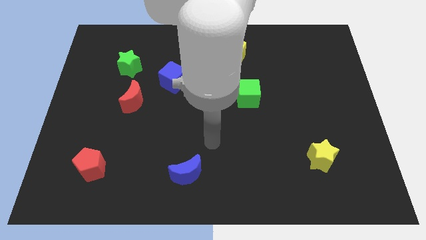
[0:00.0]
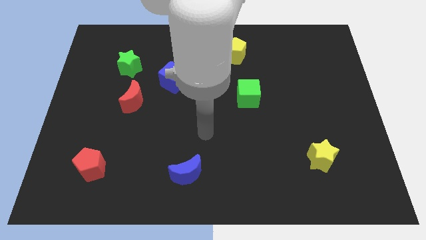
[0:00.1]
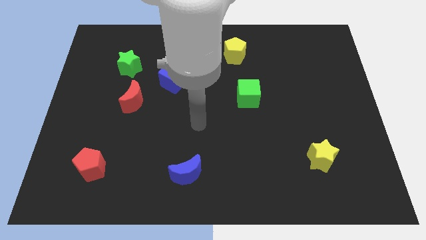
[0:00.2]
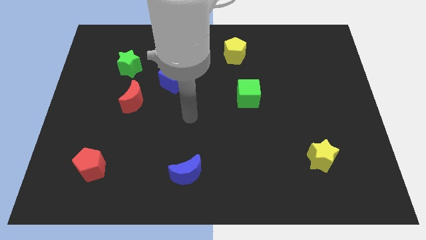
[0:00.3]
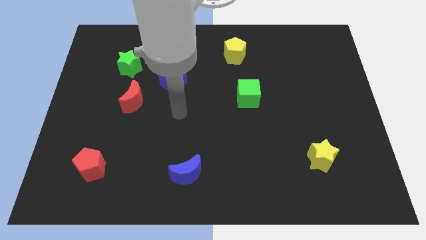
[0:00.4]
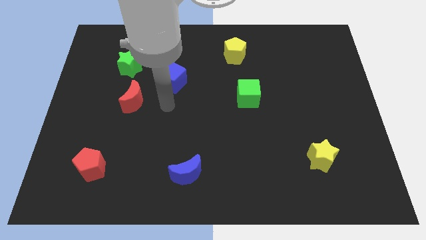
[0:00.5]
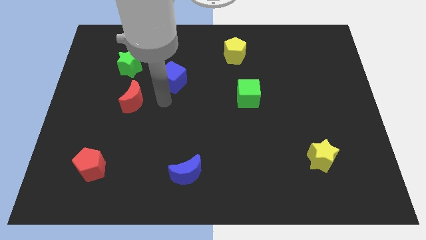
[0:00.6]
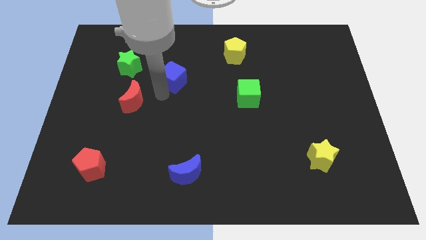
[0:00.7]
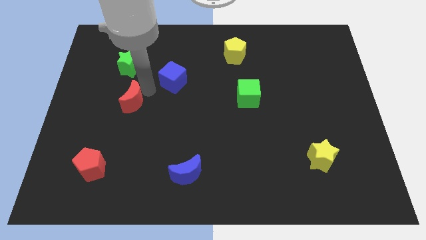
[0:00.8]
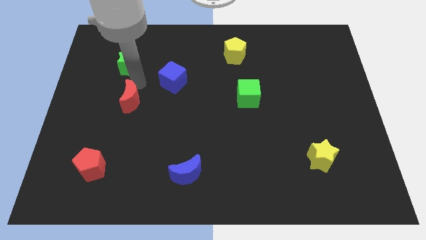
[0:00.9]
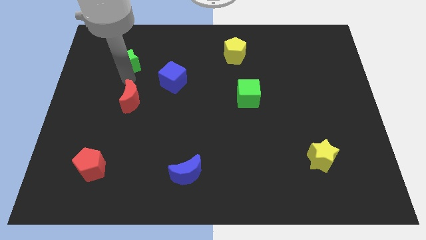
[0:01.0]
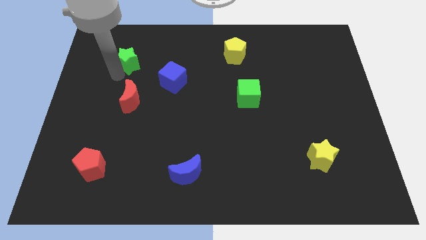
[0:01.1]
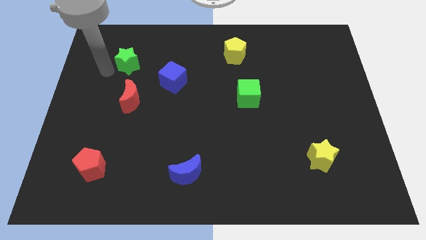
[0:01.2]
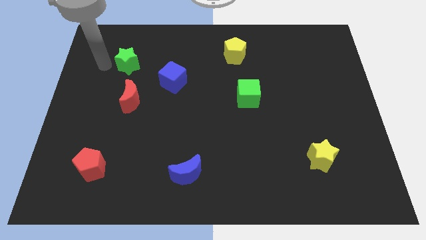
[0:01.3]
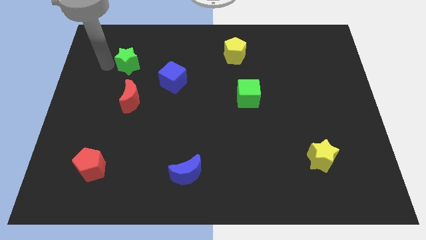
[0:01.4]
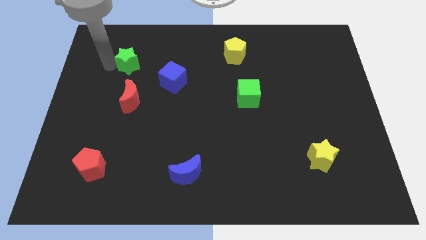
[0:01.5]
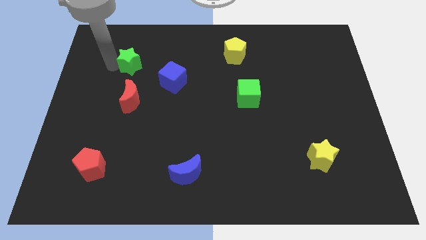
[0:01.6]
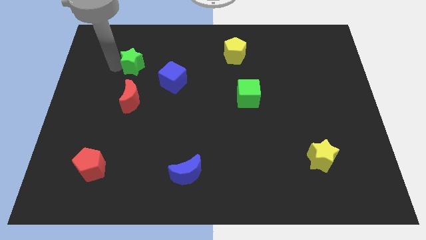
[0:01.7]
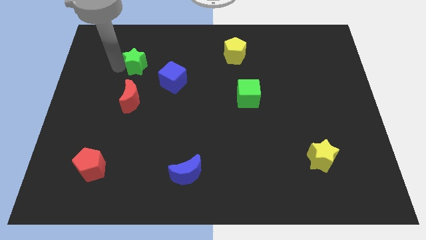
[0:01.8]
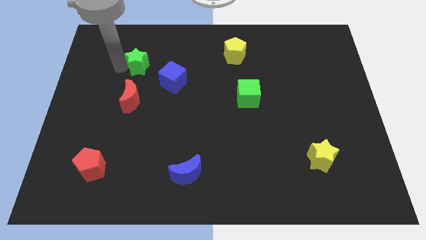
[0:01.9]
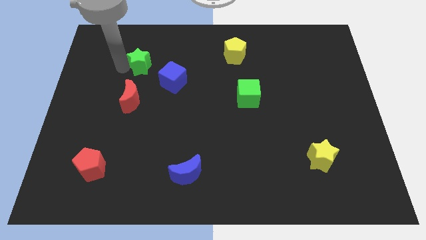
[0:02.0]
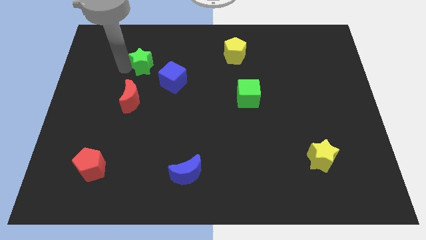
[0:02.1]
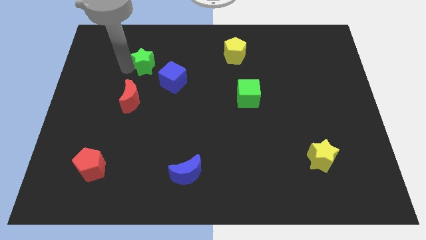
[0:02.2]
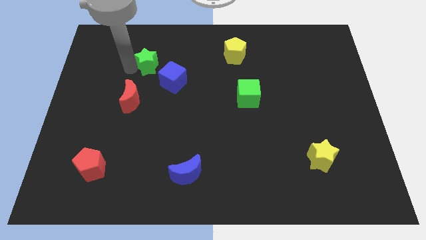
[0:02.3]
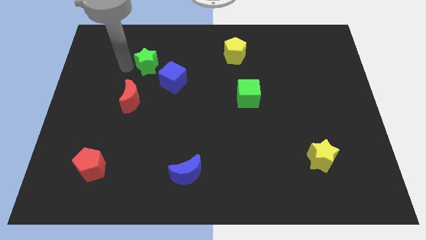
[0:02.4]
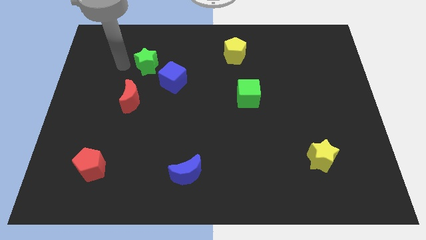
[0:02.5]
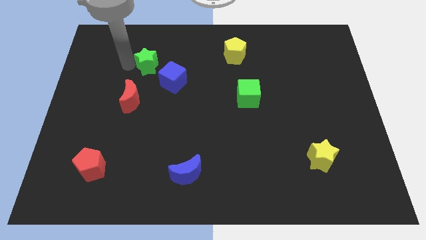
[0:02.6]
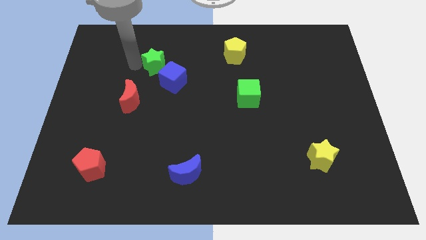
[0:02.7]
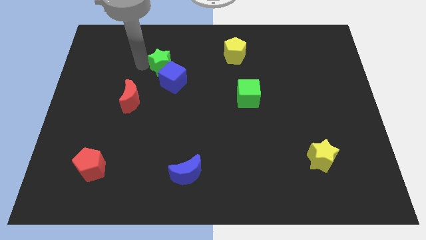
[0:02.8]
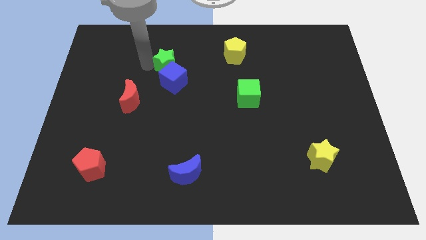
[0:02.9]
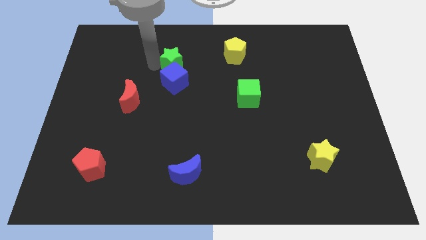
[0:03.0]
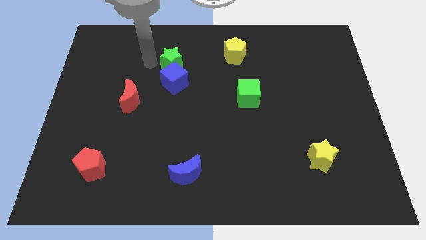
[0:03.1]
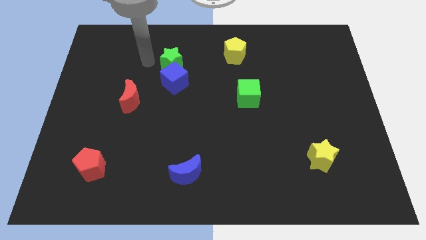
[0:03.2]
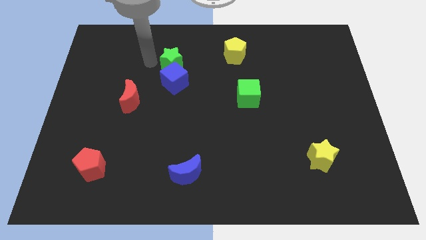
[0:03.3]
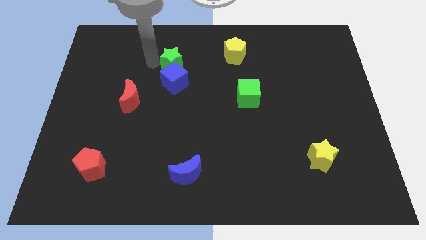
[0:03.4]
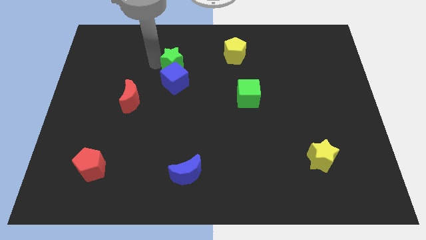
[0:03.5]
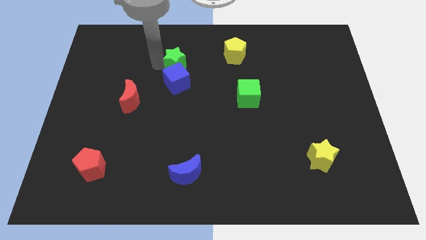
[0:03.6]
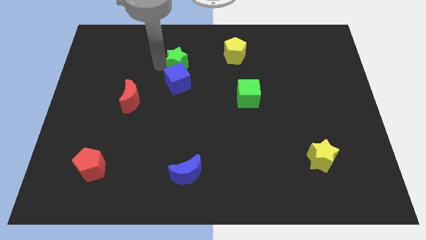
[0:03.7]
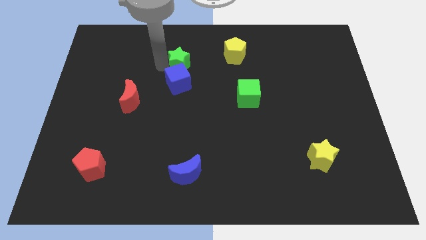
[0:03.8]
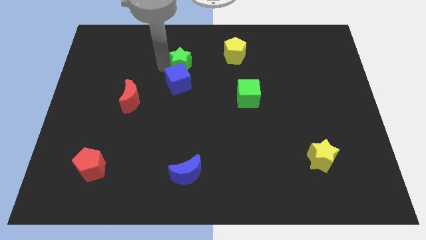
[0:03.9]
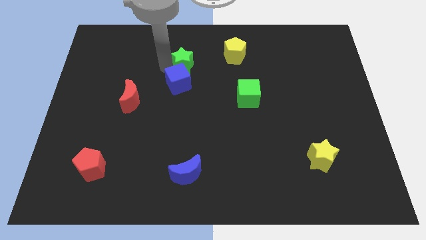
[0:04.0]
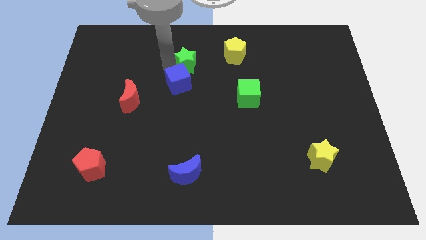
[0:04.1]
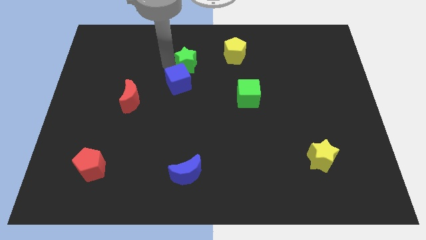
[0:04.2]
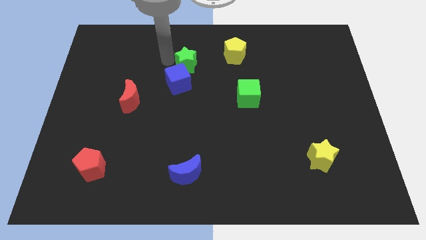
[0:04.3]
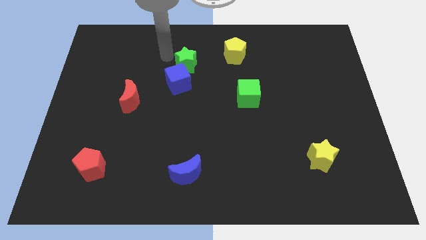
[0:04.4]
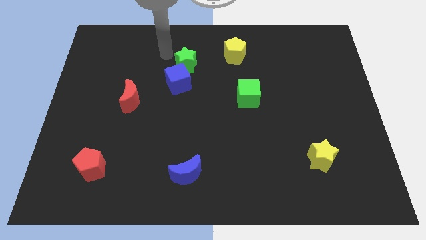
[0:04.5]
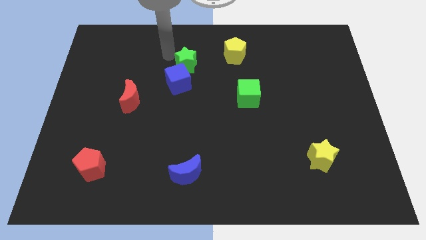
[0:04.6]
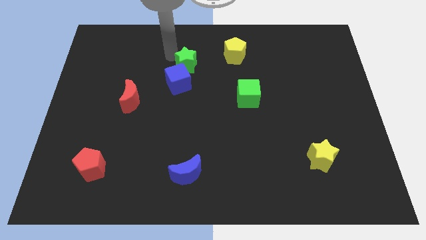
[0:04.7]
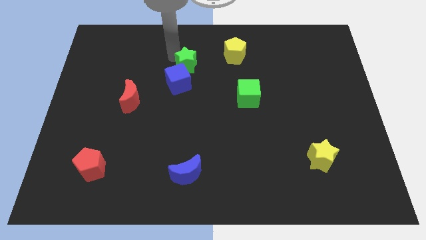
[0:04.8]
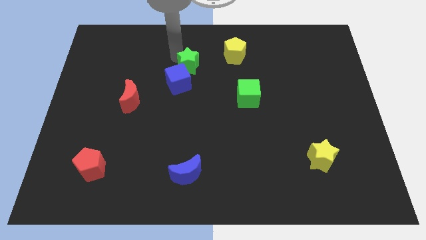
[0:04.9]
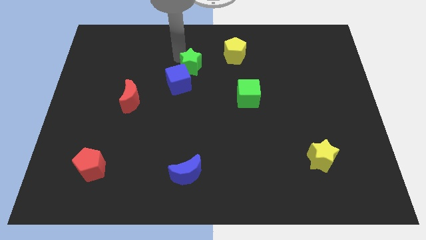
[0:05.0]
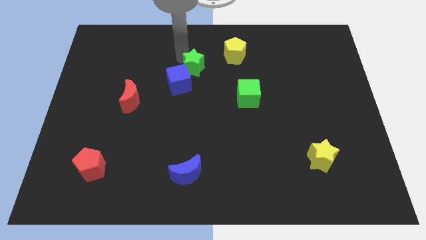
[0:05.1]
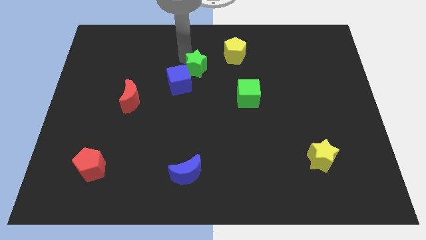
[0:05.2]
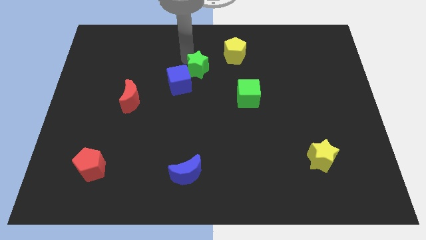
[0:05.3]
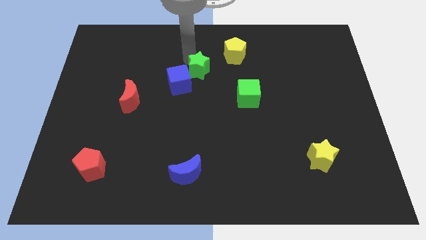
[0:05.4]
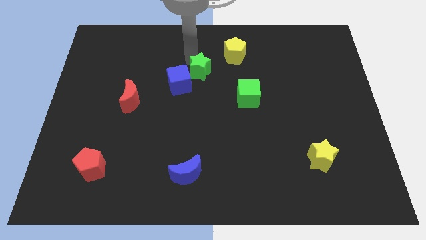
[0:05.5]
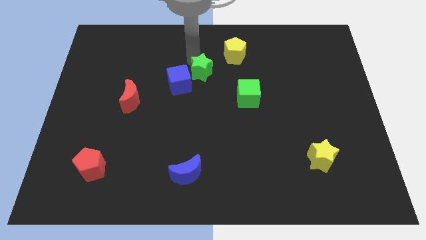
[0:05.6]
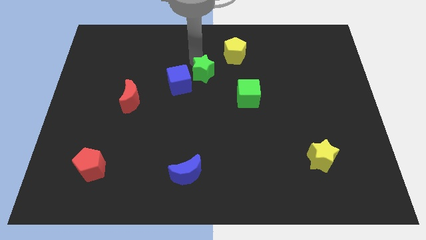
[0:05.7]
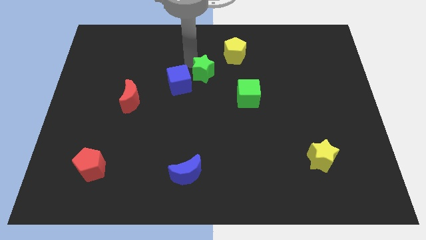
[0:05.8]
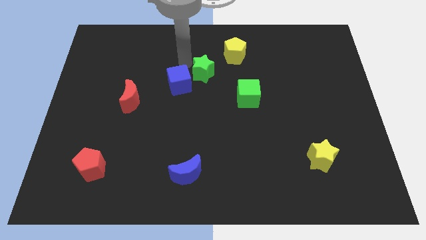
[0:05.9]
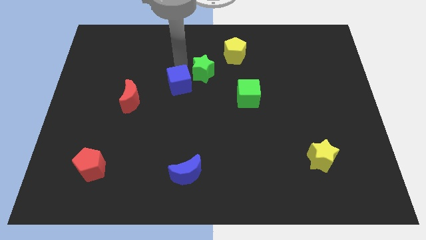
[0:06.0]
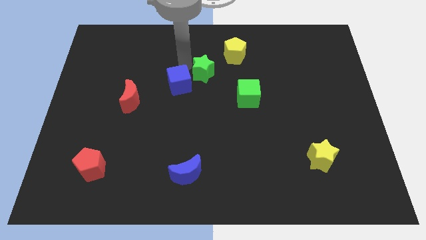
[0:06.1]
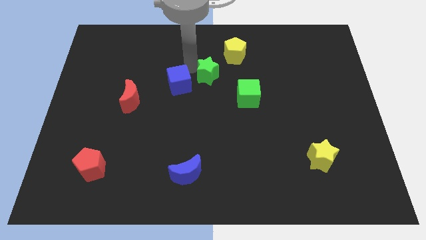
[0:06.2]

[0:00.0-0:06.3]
move the green star diagonally up and to the left of the green cube

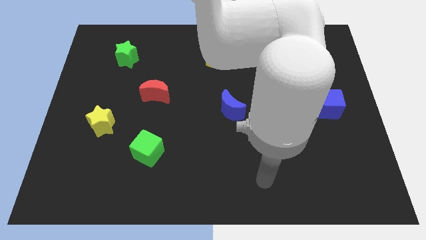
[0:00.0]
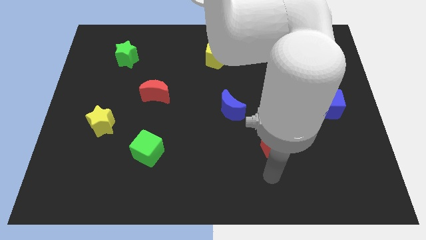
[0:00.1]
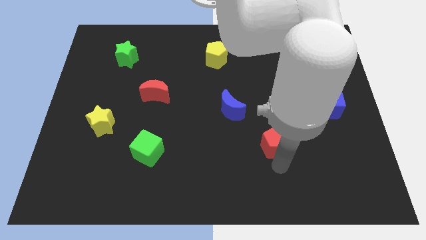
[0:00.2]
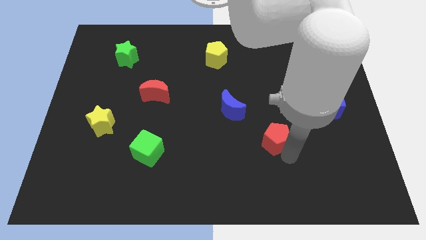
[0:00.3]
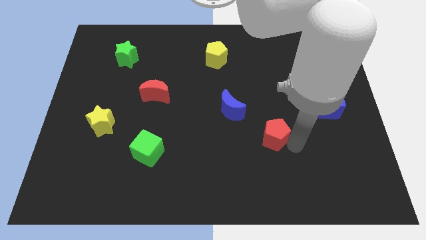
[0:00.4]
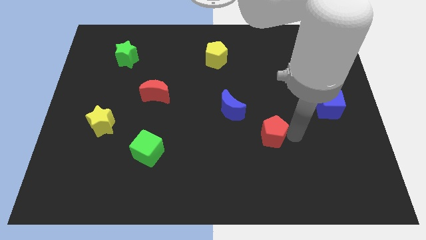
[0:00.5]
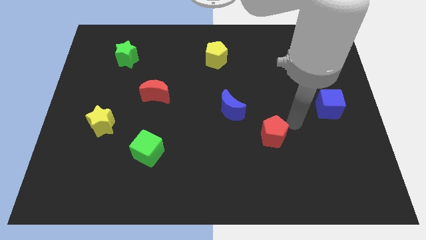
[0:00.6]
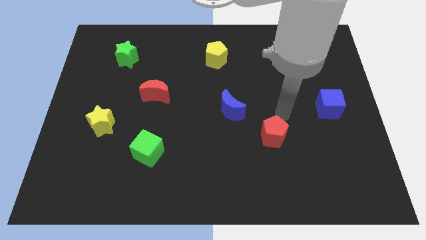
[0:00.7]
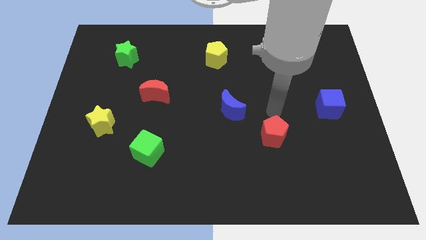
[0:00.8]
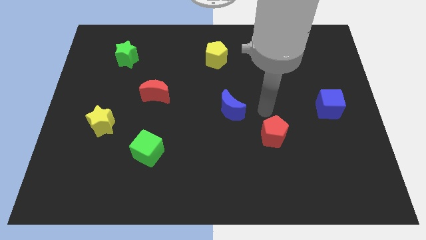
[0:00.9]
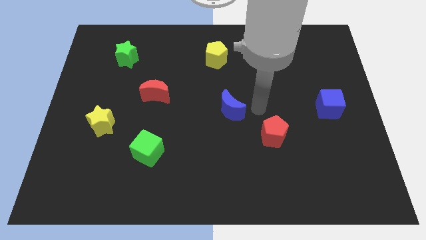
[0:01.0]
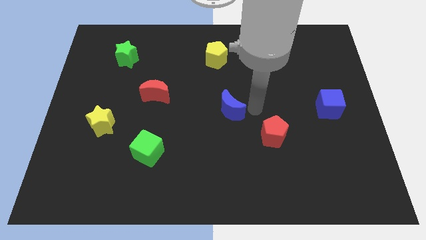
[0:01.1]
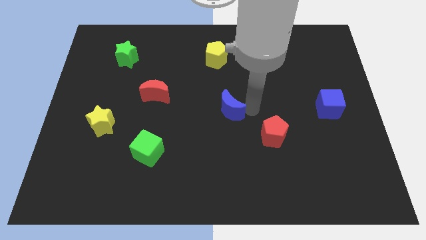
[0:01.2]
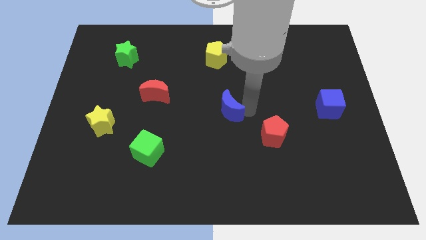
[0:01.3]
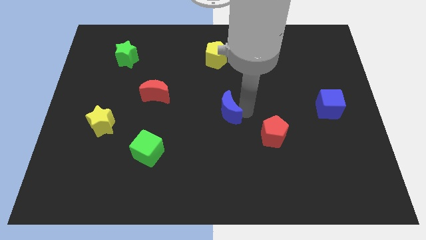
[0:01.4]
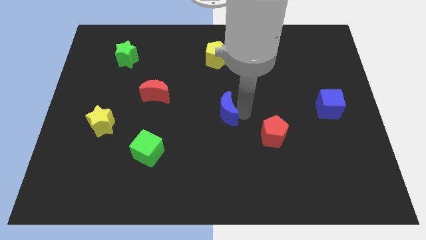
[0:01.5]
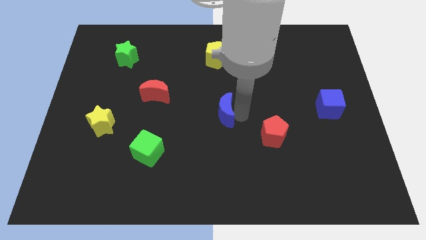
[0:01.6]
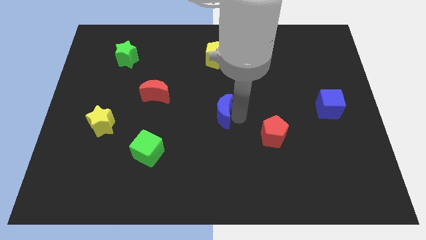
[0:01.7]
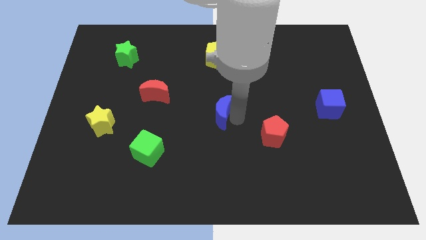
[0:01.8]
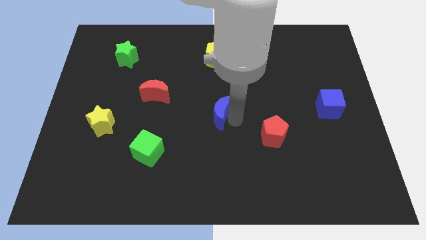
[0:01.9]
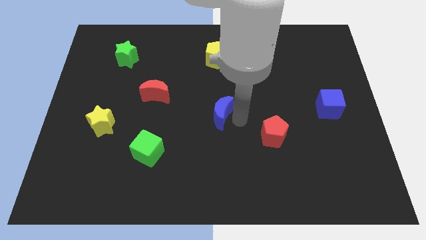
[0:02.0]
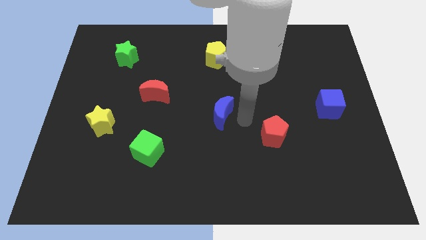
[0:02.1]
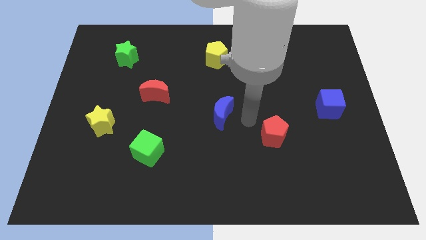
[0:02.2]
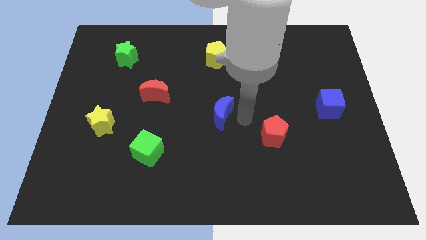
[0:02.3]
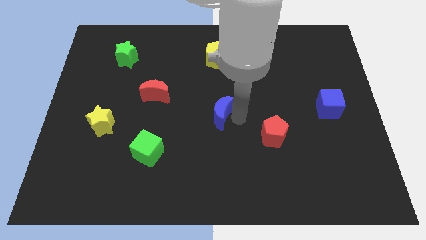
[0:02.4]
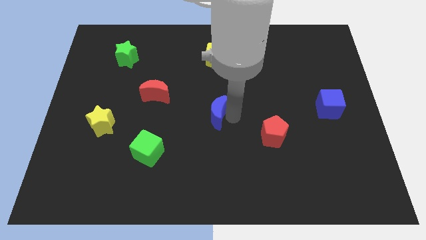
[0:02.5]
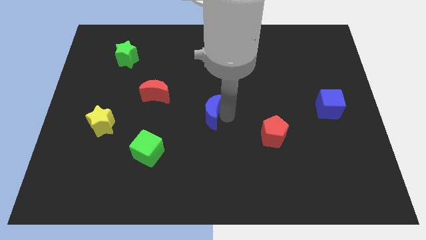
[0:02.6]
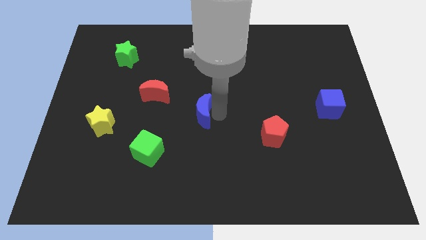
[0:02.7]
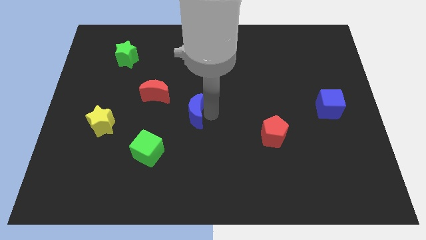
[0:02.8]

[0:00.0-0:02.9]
slide the blue moon to the bottom right side of the red moon
